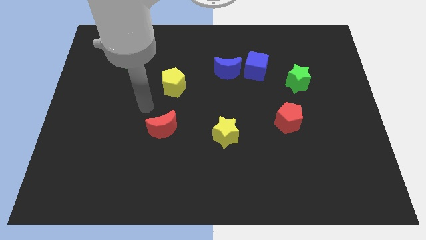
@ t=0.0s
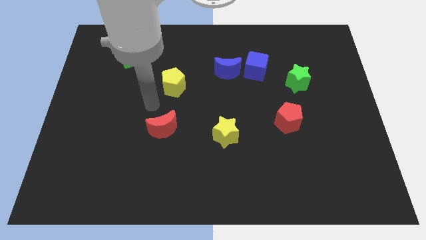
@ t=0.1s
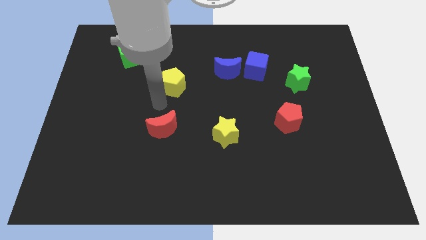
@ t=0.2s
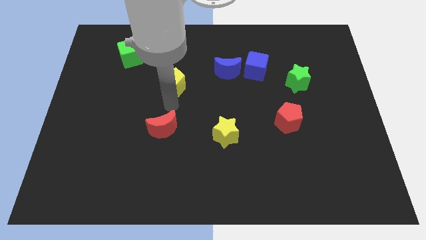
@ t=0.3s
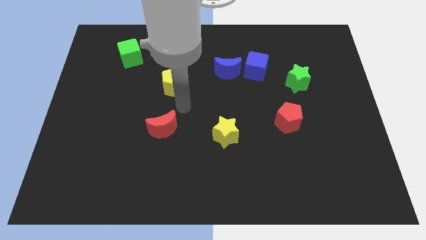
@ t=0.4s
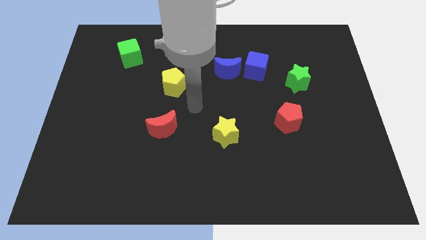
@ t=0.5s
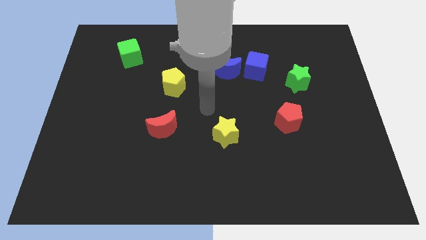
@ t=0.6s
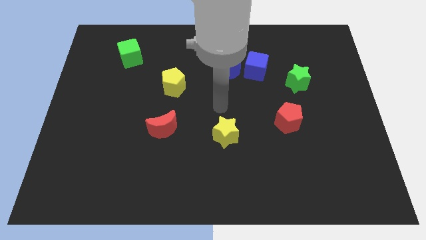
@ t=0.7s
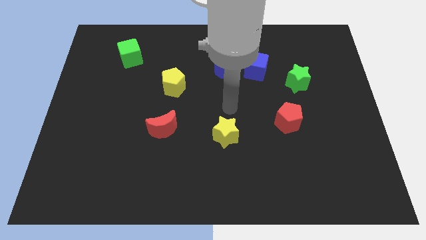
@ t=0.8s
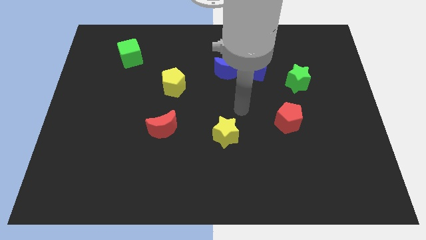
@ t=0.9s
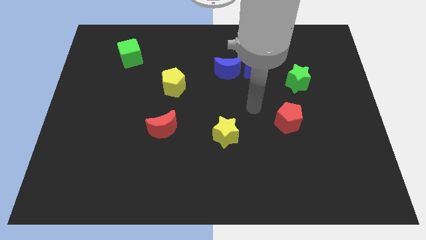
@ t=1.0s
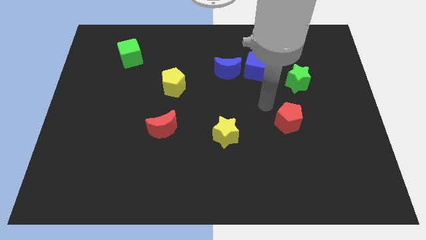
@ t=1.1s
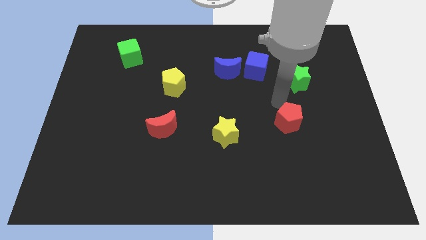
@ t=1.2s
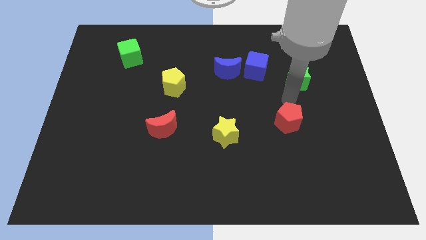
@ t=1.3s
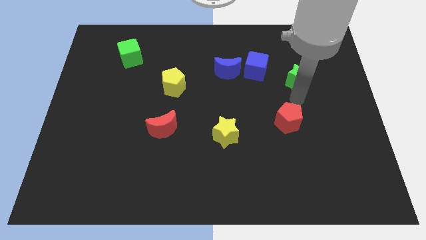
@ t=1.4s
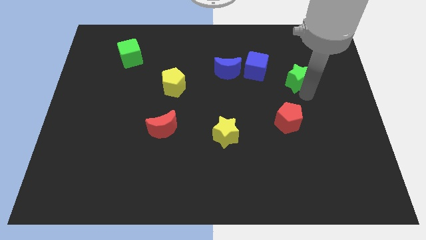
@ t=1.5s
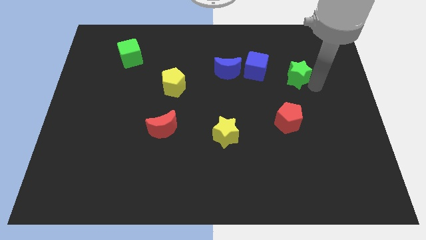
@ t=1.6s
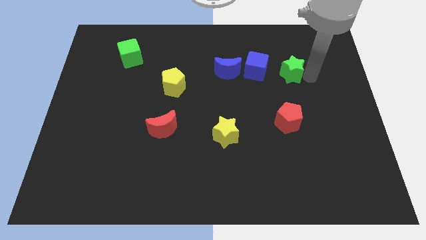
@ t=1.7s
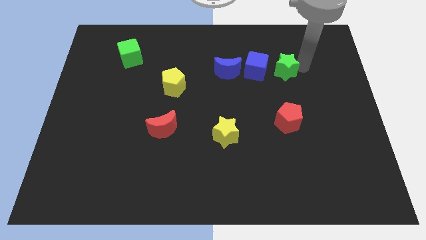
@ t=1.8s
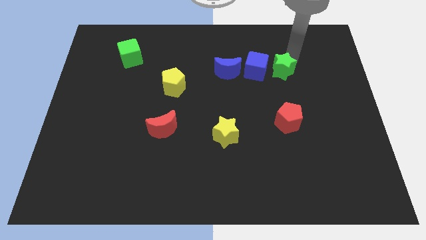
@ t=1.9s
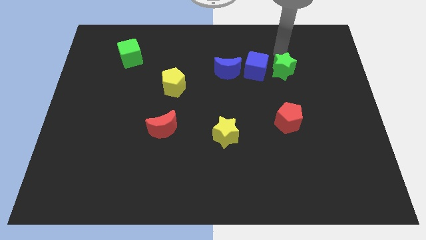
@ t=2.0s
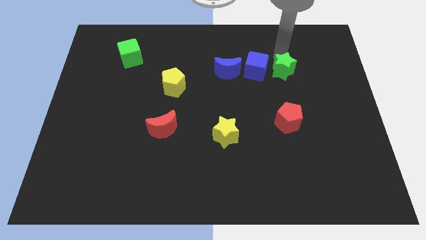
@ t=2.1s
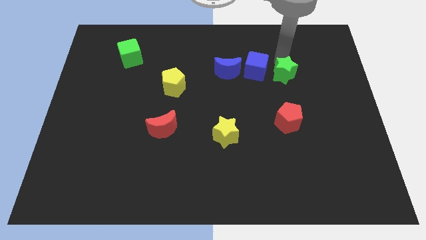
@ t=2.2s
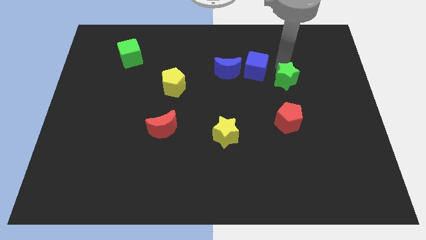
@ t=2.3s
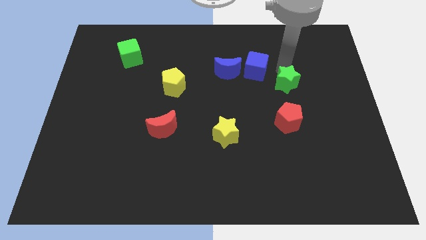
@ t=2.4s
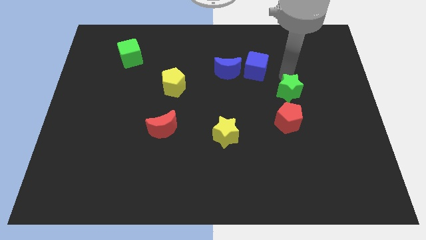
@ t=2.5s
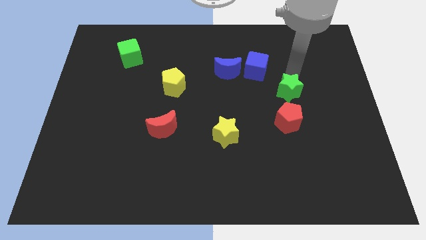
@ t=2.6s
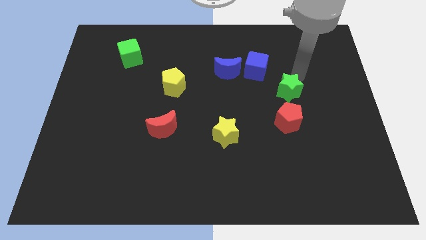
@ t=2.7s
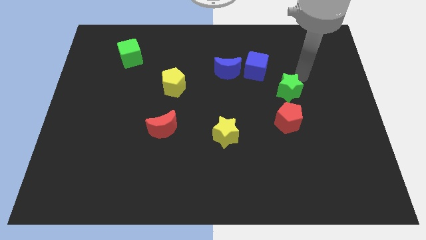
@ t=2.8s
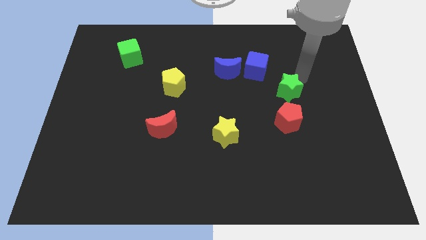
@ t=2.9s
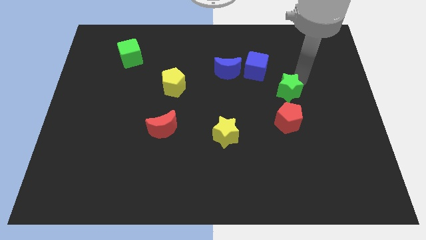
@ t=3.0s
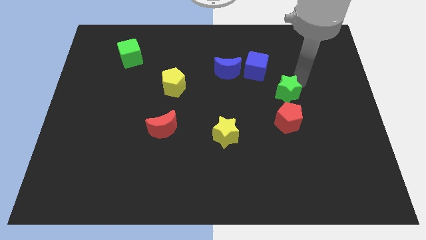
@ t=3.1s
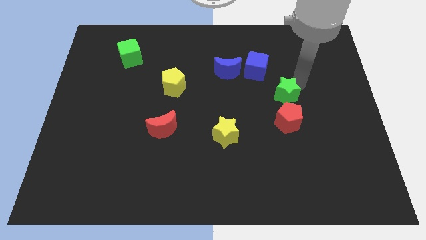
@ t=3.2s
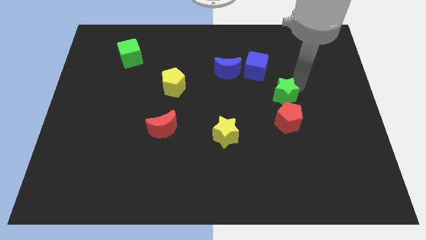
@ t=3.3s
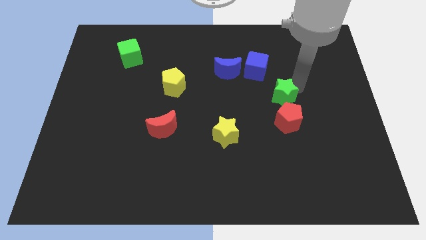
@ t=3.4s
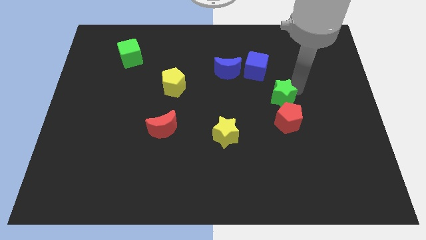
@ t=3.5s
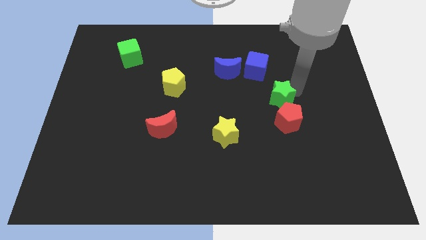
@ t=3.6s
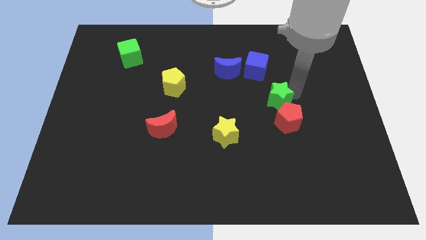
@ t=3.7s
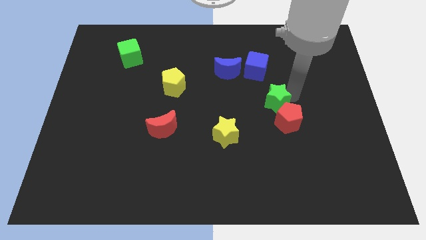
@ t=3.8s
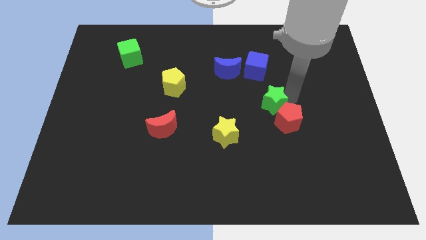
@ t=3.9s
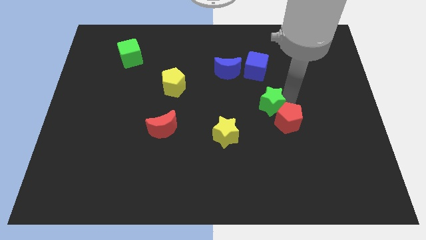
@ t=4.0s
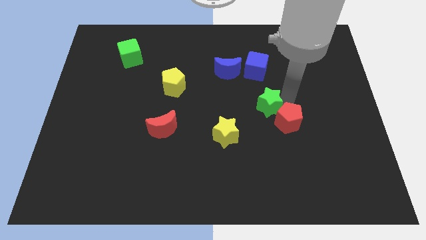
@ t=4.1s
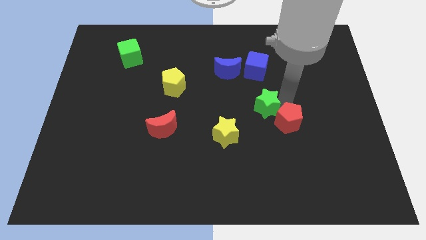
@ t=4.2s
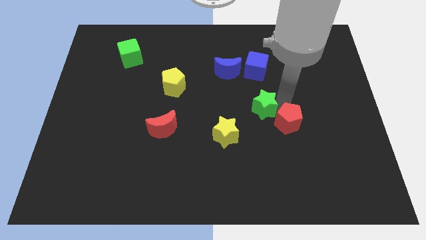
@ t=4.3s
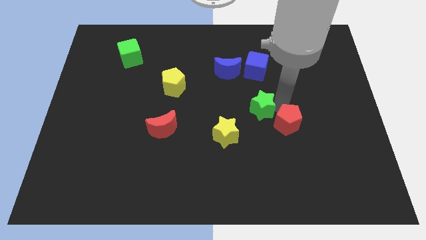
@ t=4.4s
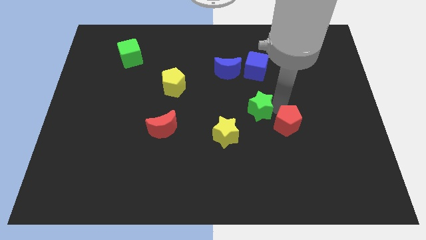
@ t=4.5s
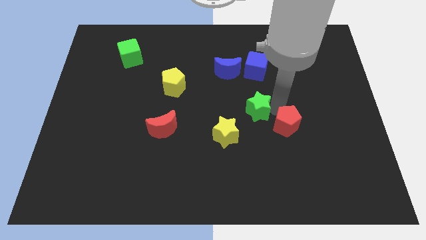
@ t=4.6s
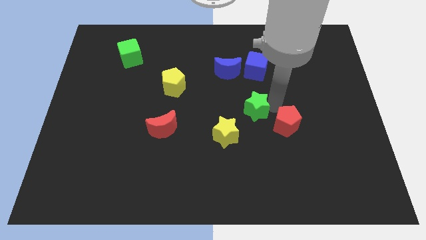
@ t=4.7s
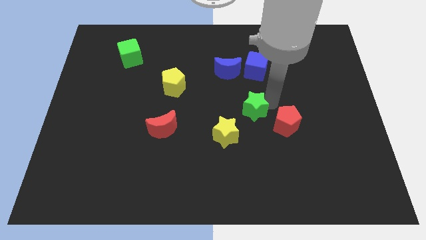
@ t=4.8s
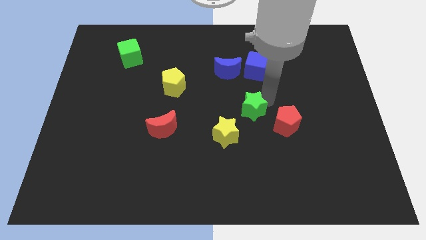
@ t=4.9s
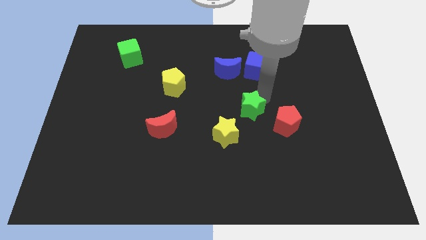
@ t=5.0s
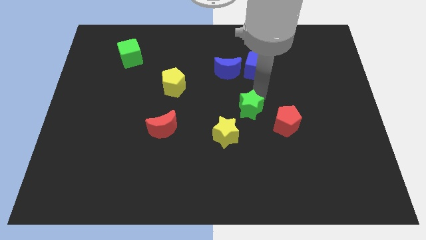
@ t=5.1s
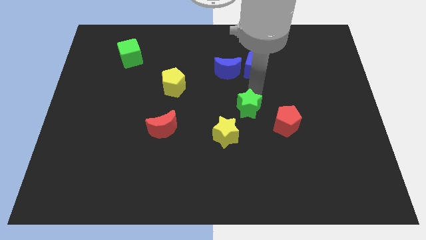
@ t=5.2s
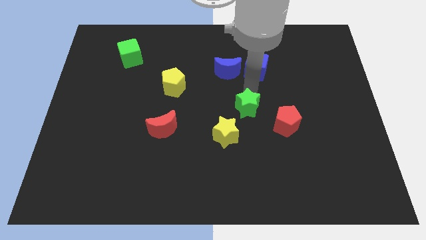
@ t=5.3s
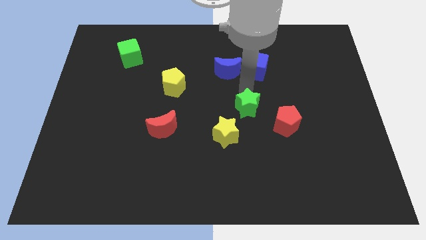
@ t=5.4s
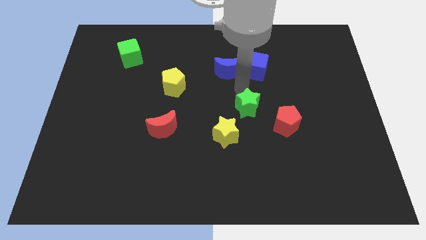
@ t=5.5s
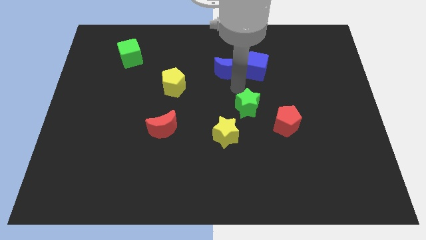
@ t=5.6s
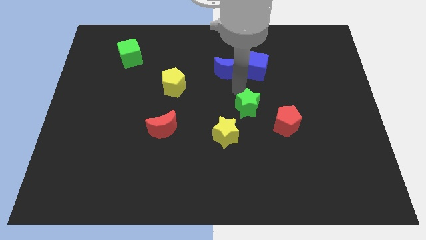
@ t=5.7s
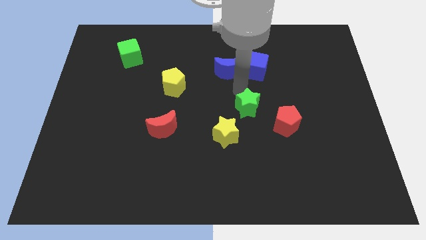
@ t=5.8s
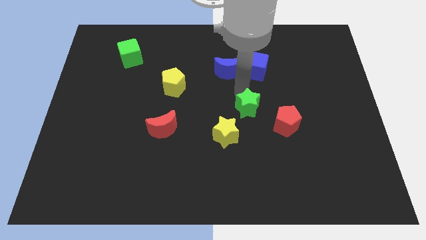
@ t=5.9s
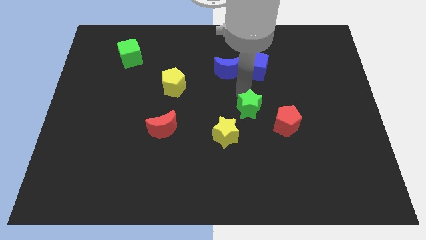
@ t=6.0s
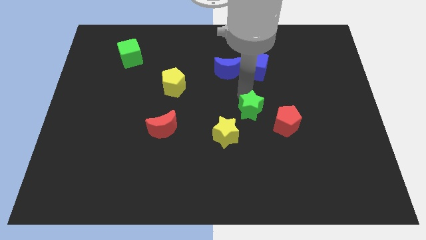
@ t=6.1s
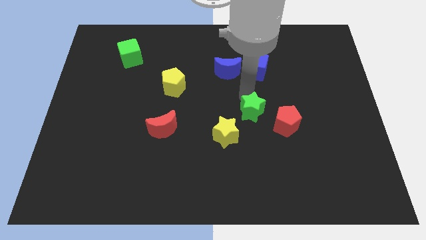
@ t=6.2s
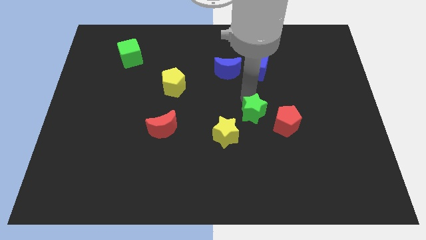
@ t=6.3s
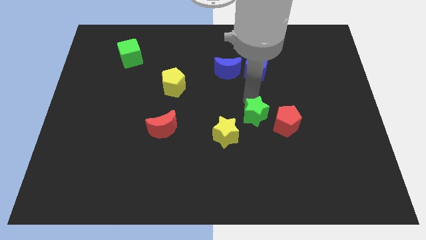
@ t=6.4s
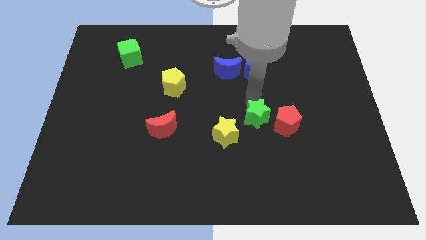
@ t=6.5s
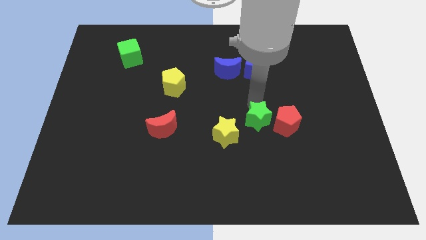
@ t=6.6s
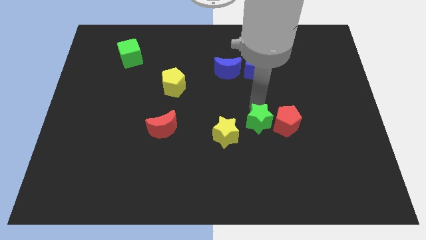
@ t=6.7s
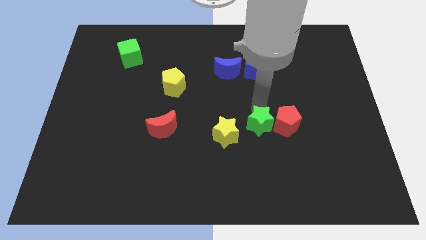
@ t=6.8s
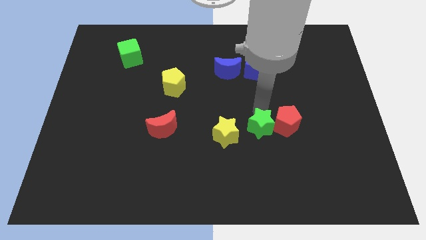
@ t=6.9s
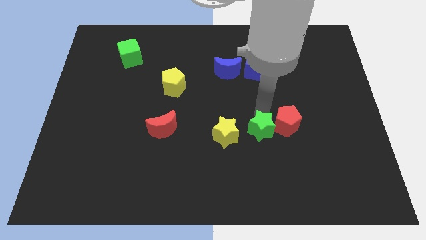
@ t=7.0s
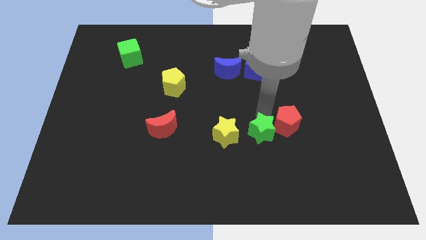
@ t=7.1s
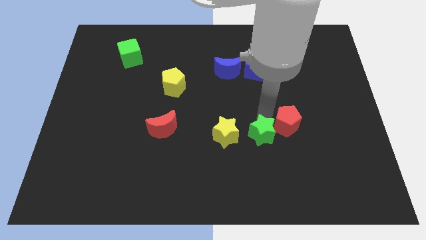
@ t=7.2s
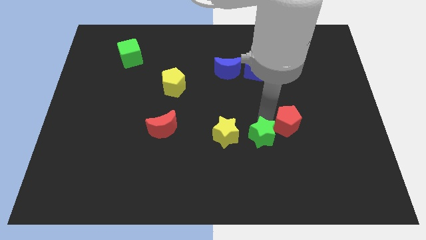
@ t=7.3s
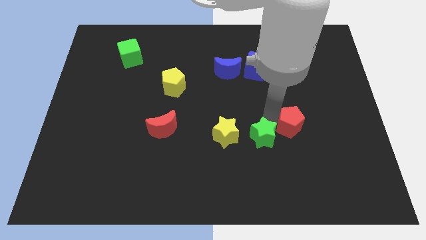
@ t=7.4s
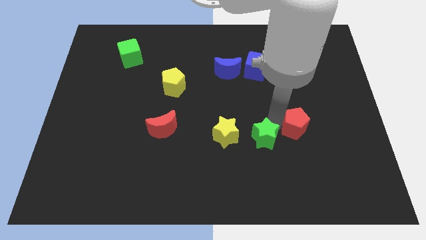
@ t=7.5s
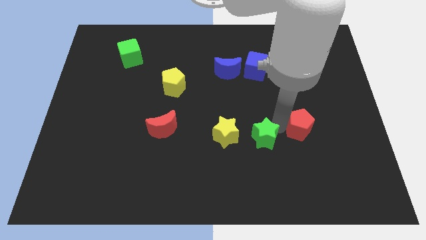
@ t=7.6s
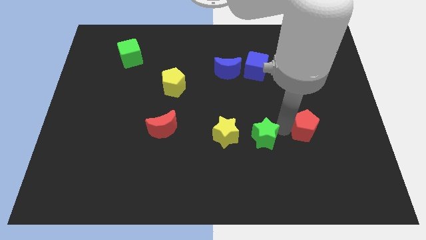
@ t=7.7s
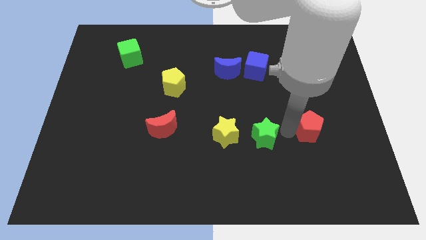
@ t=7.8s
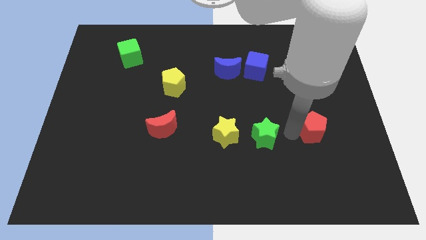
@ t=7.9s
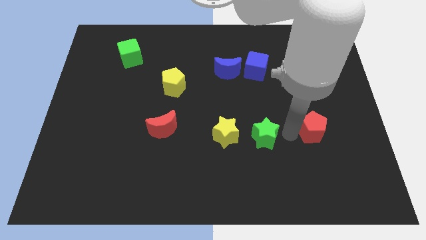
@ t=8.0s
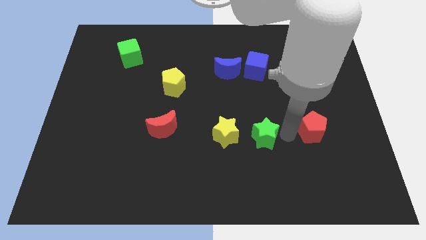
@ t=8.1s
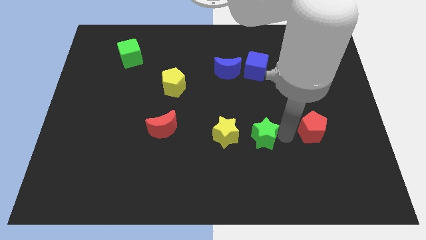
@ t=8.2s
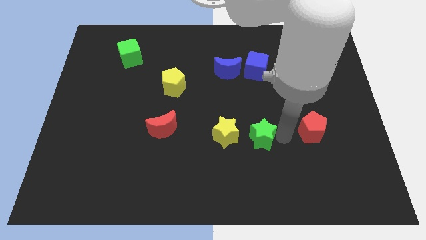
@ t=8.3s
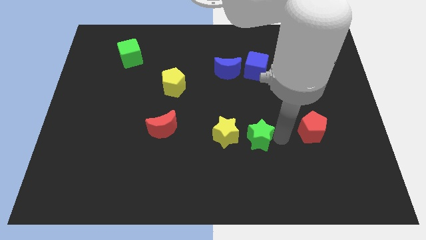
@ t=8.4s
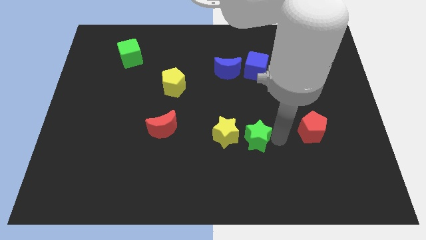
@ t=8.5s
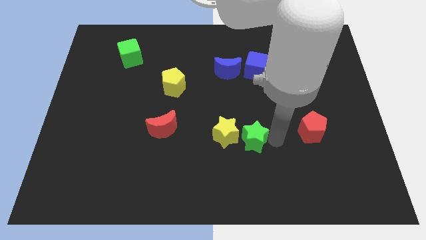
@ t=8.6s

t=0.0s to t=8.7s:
move the green star diagonally down and to the left
